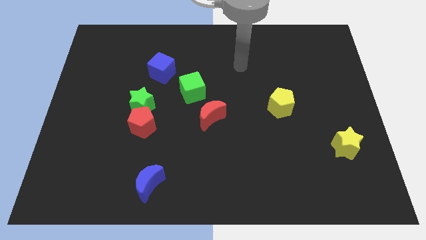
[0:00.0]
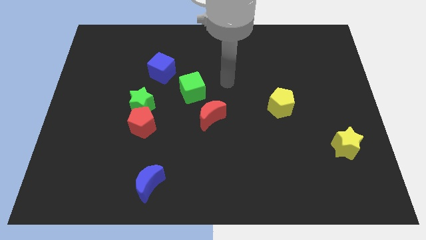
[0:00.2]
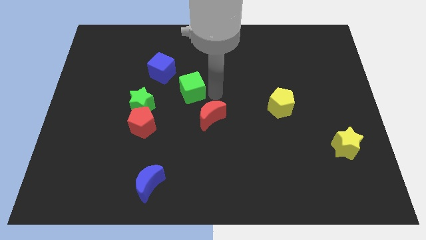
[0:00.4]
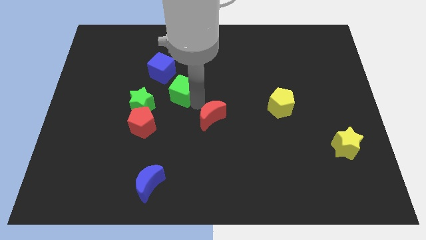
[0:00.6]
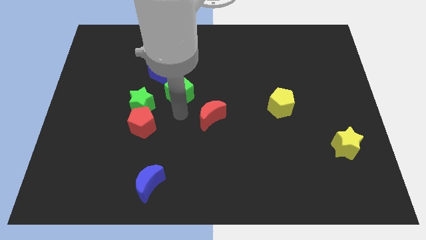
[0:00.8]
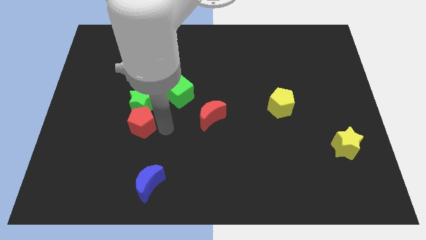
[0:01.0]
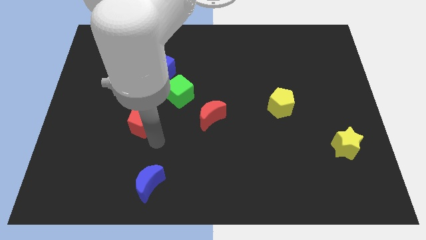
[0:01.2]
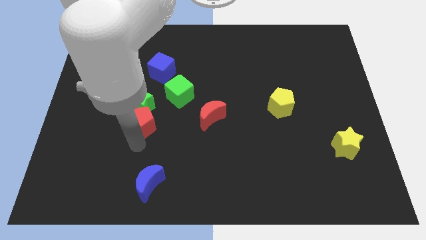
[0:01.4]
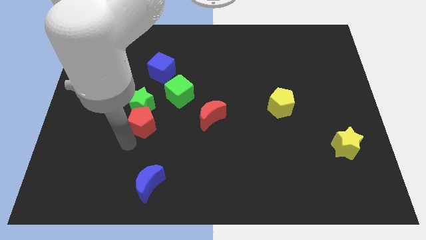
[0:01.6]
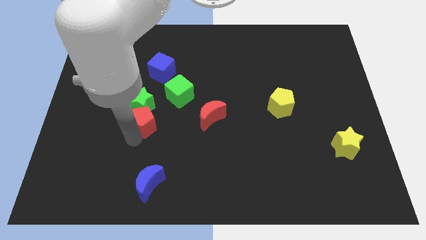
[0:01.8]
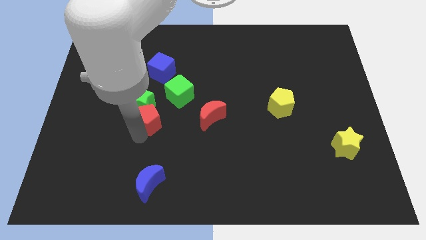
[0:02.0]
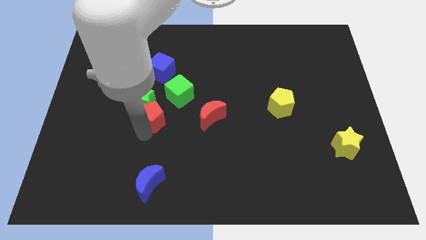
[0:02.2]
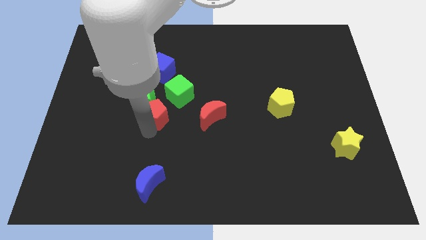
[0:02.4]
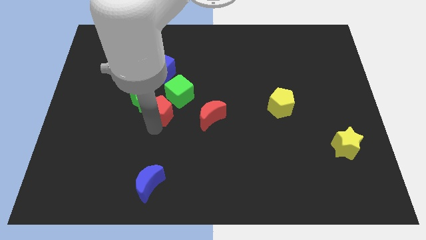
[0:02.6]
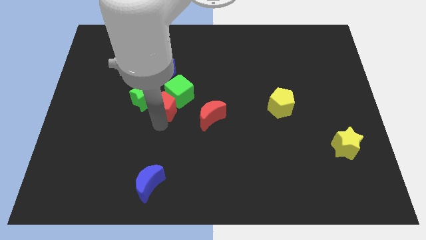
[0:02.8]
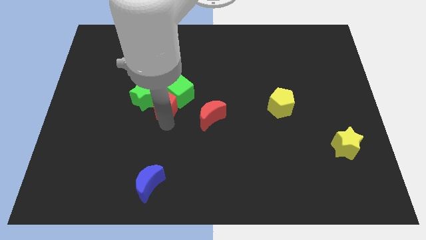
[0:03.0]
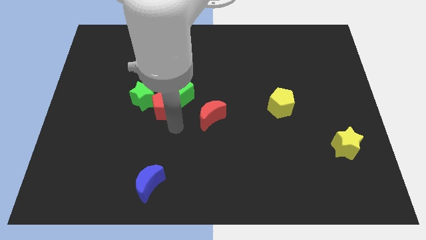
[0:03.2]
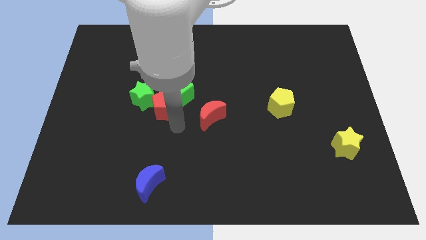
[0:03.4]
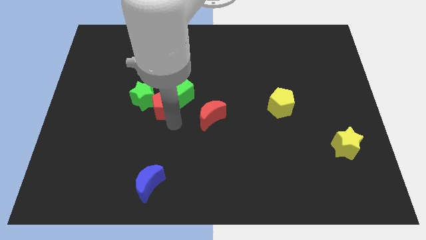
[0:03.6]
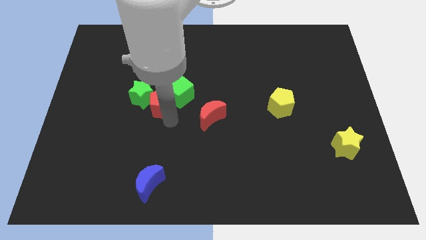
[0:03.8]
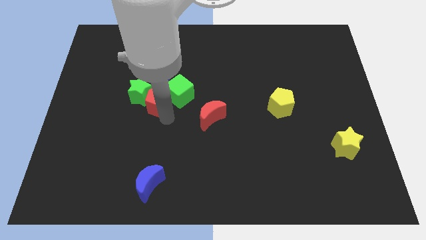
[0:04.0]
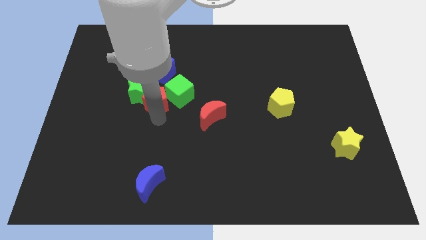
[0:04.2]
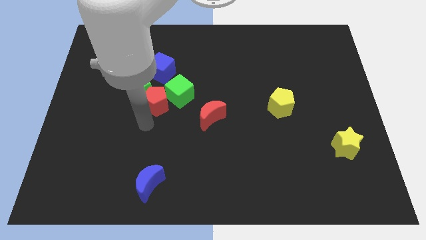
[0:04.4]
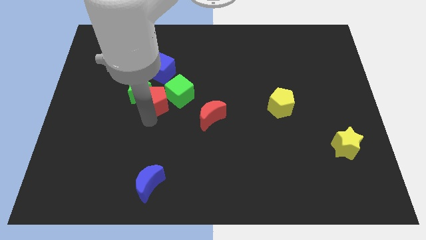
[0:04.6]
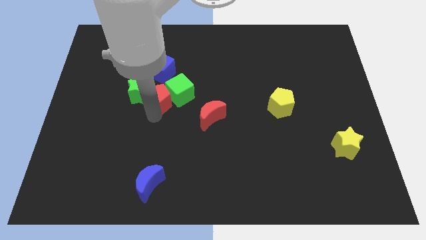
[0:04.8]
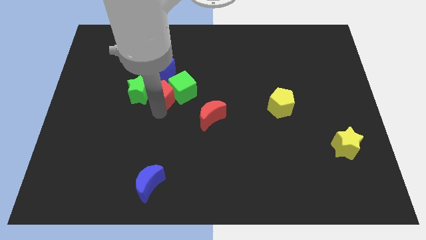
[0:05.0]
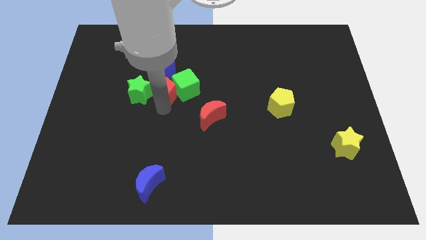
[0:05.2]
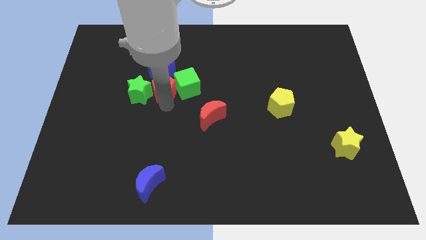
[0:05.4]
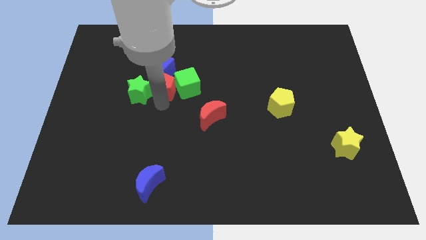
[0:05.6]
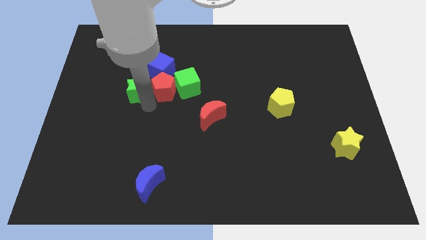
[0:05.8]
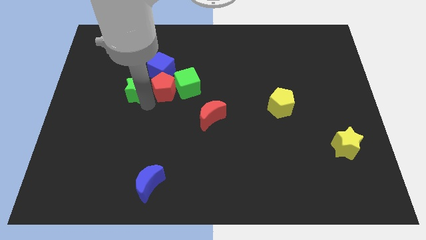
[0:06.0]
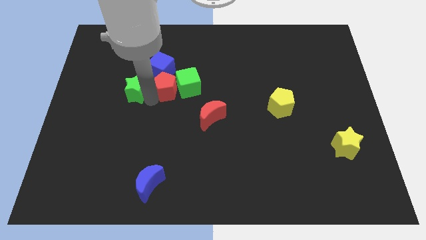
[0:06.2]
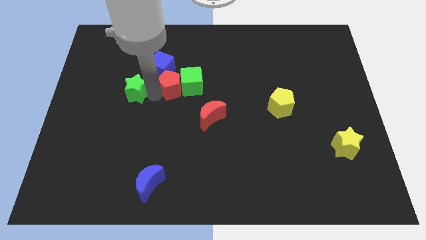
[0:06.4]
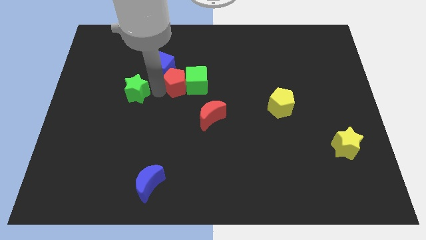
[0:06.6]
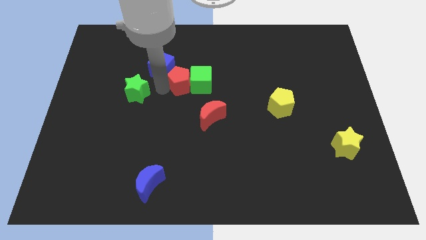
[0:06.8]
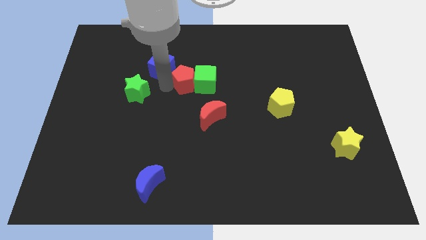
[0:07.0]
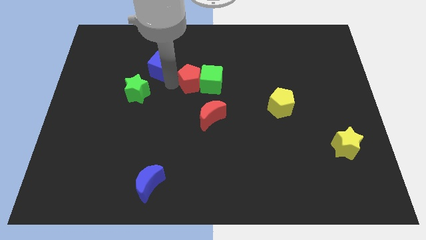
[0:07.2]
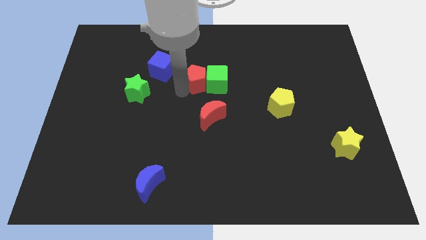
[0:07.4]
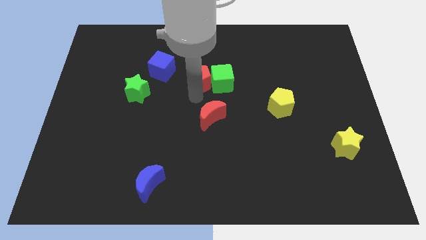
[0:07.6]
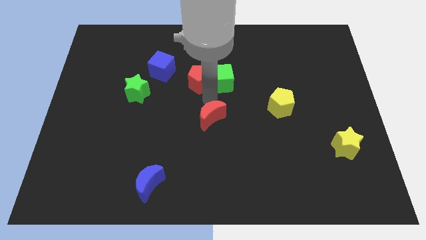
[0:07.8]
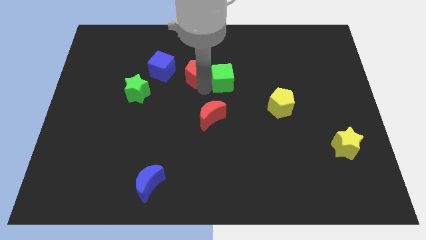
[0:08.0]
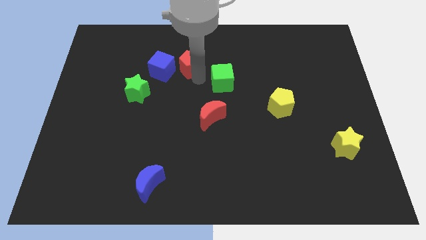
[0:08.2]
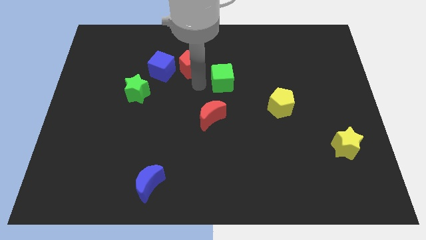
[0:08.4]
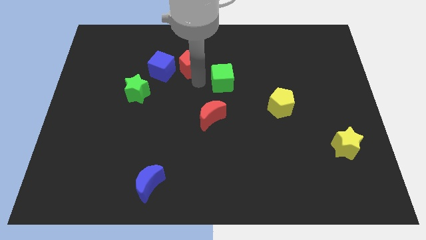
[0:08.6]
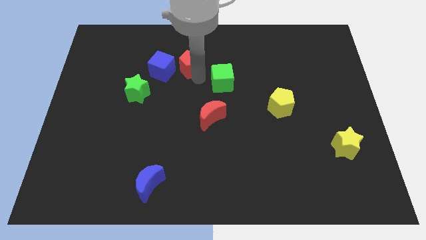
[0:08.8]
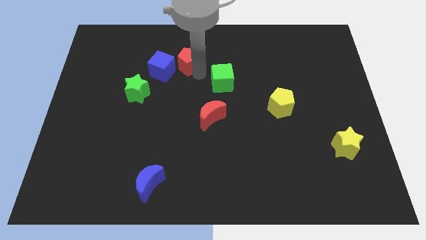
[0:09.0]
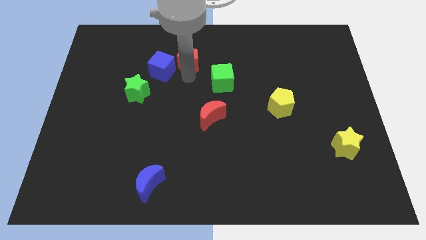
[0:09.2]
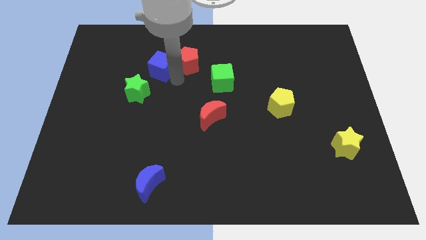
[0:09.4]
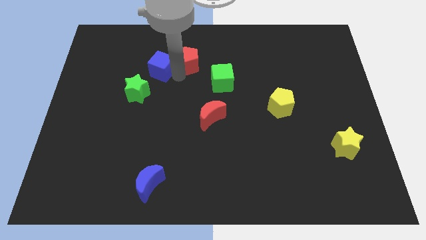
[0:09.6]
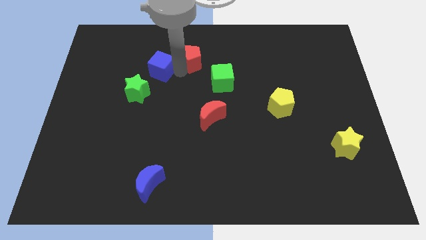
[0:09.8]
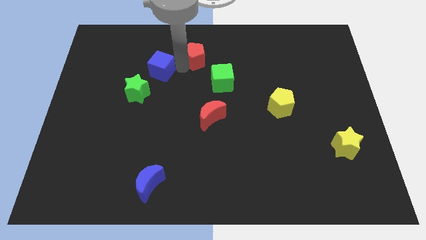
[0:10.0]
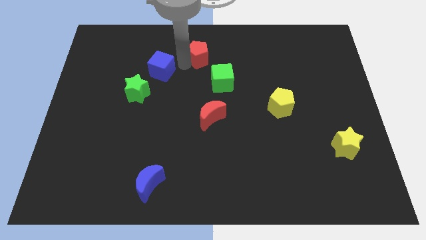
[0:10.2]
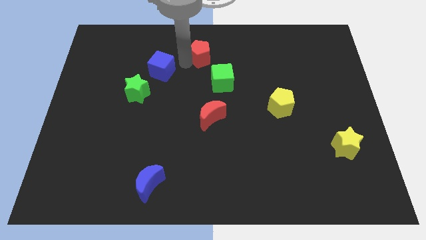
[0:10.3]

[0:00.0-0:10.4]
push the red pentagon to the top
